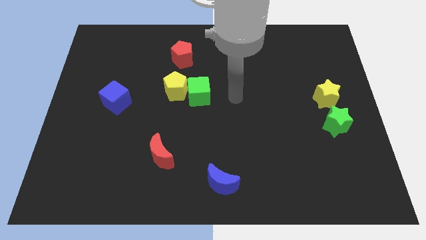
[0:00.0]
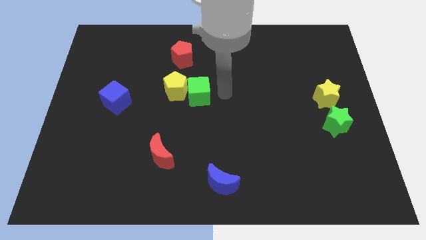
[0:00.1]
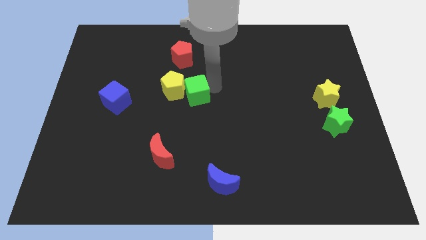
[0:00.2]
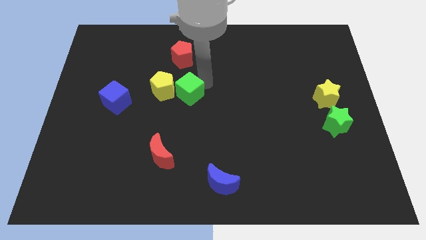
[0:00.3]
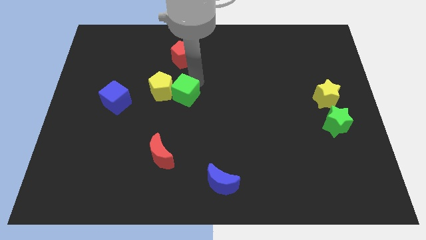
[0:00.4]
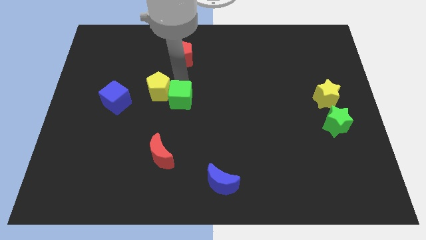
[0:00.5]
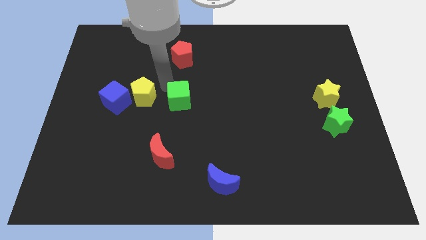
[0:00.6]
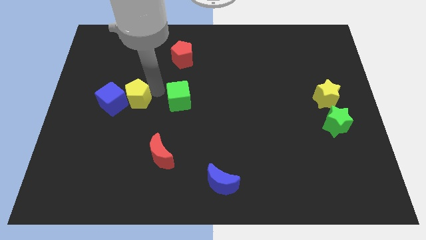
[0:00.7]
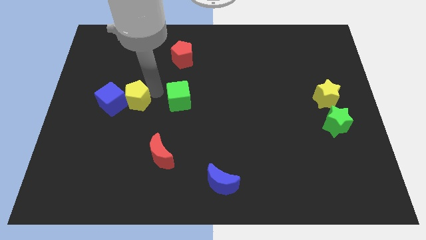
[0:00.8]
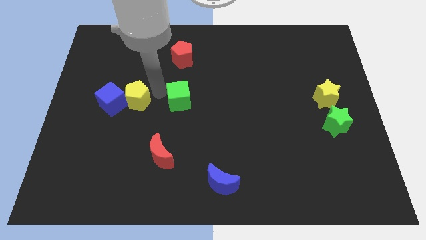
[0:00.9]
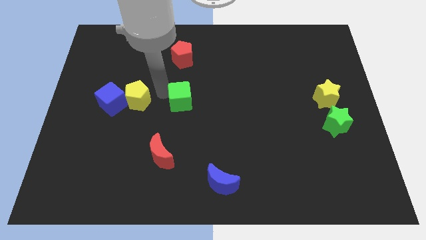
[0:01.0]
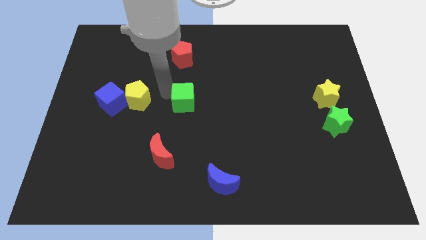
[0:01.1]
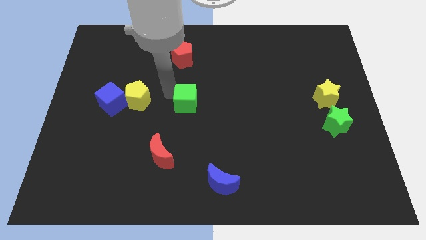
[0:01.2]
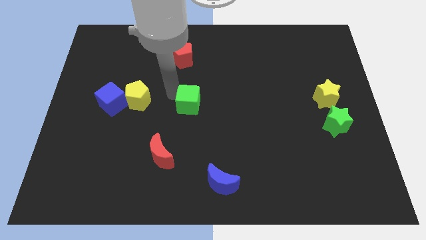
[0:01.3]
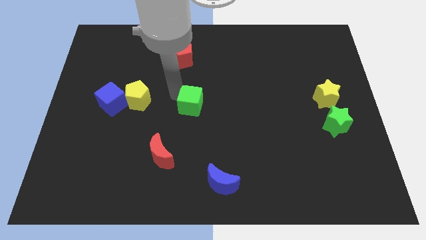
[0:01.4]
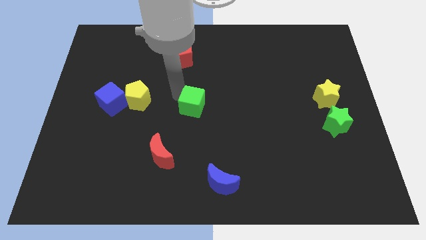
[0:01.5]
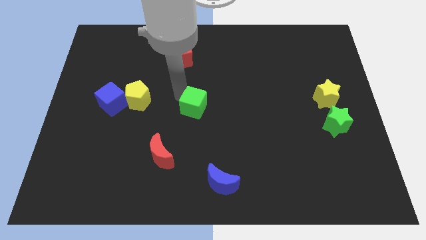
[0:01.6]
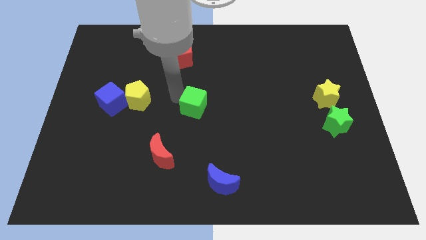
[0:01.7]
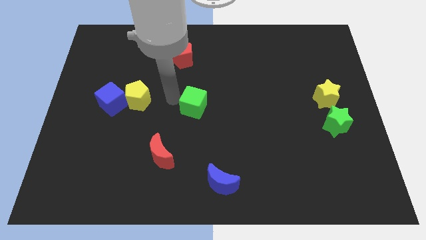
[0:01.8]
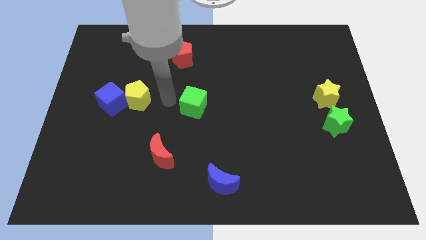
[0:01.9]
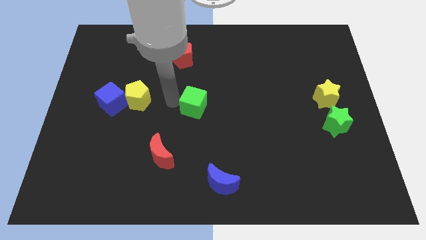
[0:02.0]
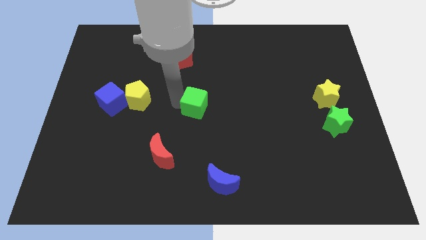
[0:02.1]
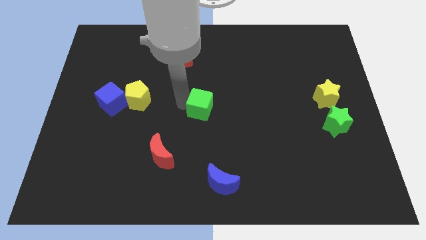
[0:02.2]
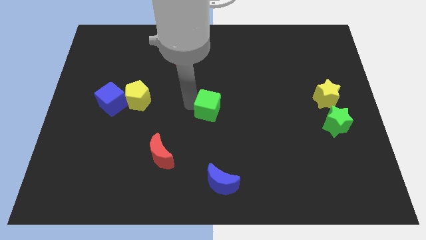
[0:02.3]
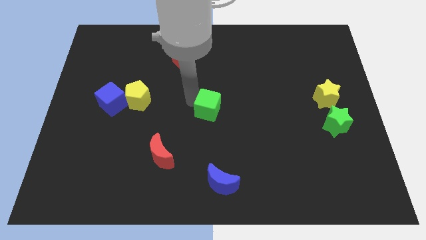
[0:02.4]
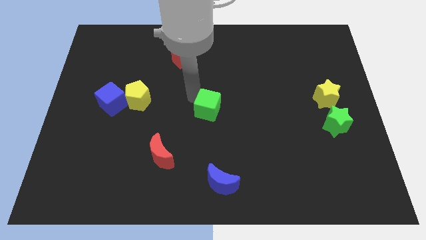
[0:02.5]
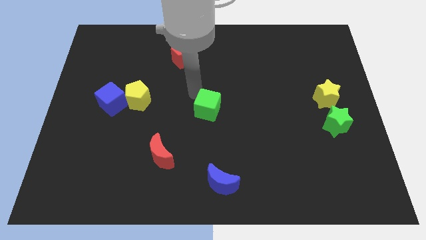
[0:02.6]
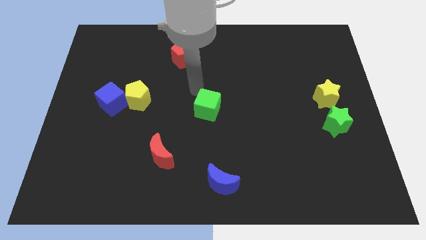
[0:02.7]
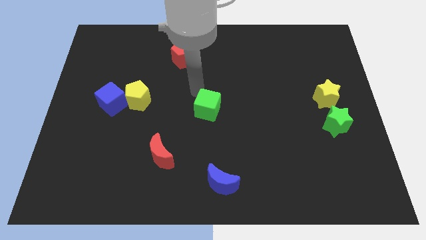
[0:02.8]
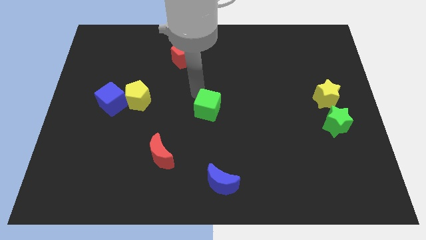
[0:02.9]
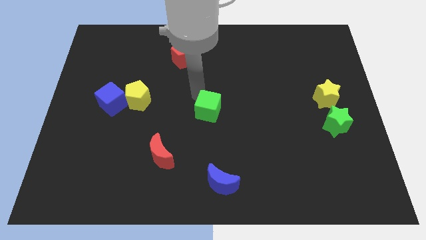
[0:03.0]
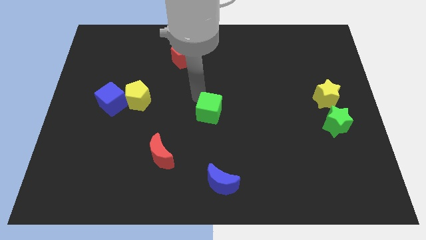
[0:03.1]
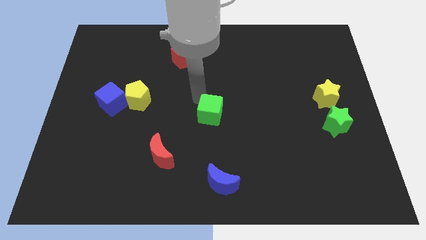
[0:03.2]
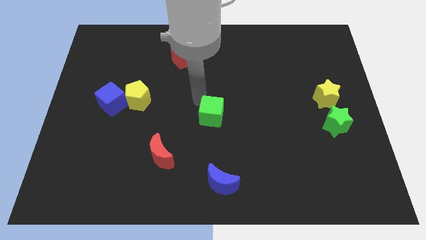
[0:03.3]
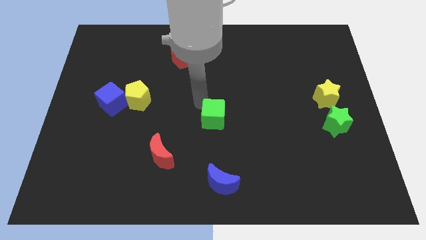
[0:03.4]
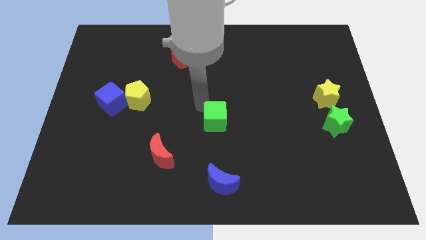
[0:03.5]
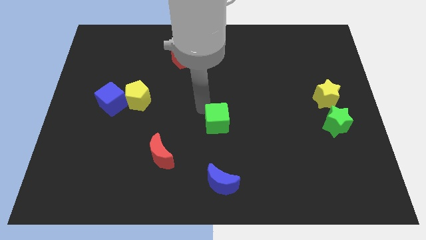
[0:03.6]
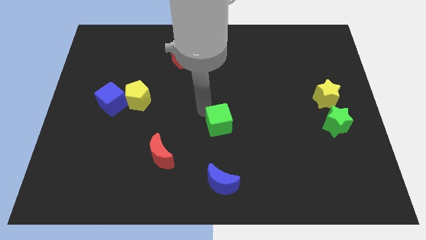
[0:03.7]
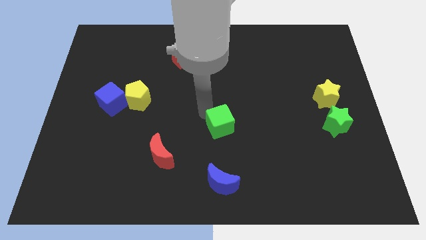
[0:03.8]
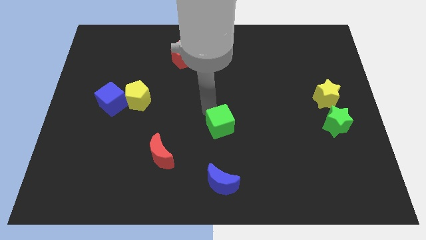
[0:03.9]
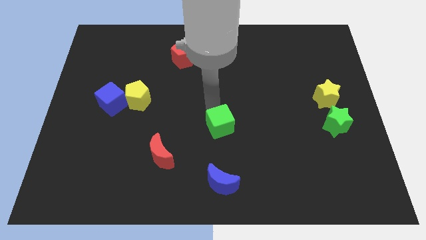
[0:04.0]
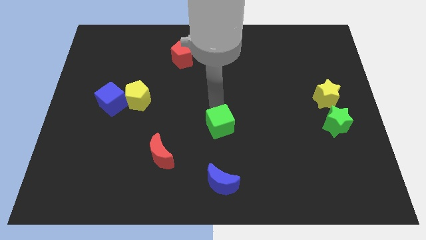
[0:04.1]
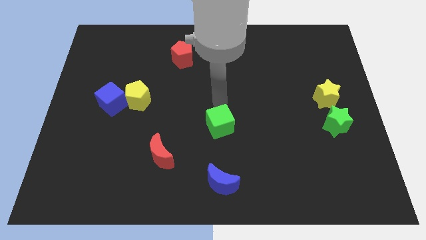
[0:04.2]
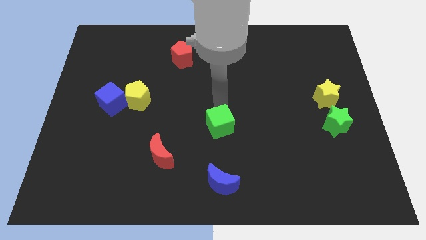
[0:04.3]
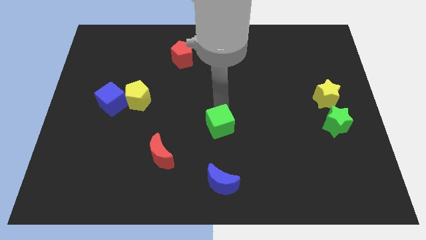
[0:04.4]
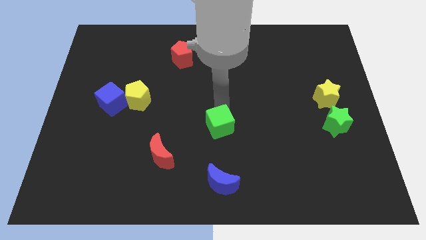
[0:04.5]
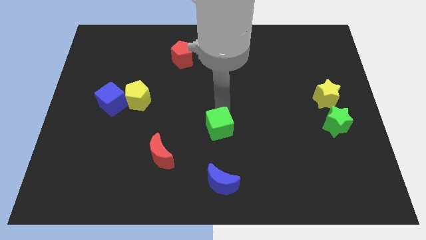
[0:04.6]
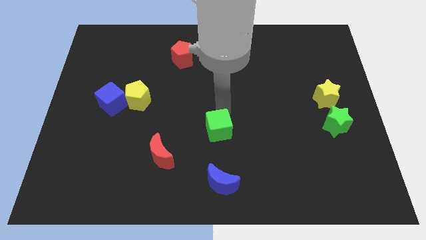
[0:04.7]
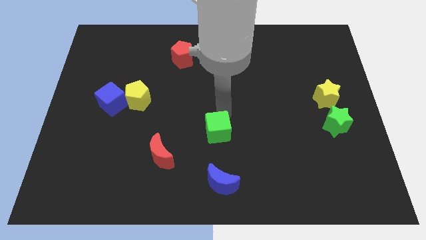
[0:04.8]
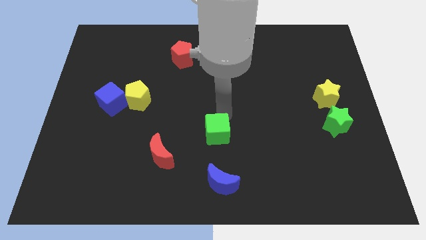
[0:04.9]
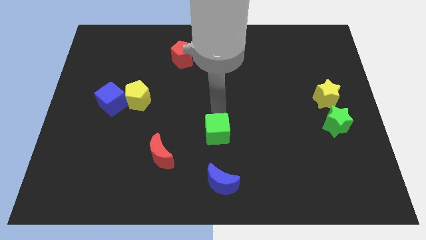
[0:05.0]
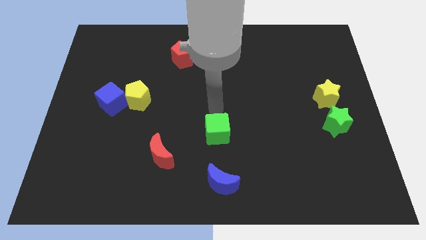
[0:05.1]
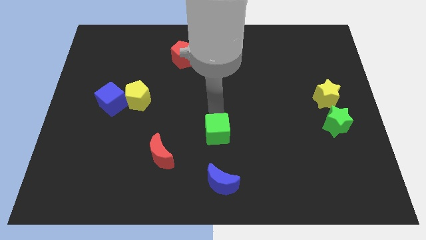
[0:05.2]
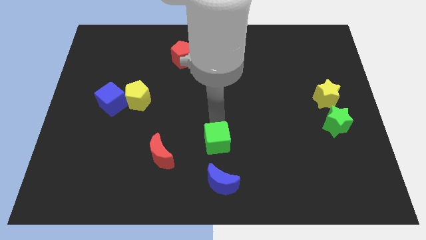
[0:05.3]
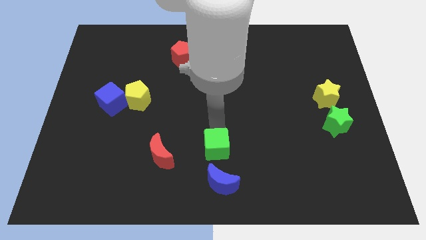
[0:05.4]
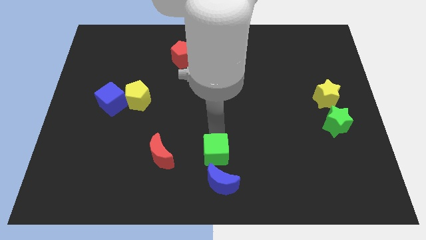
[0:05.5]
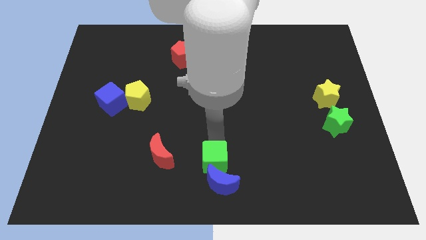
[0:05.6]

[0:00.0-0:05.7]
move the green cube next to the blue moon

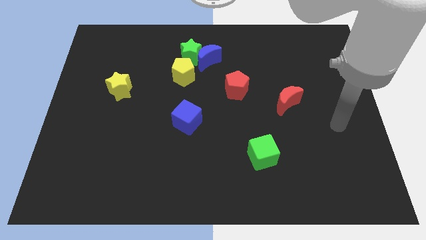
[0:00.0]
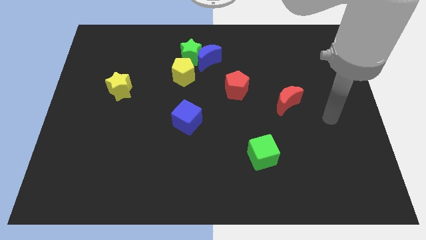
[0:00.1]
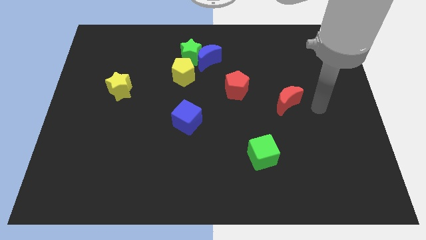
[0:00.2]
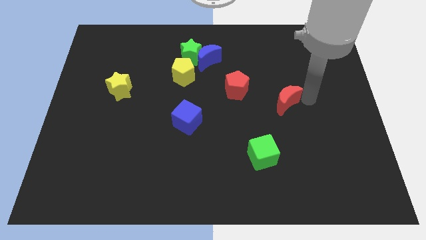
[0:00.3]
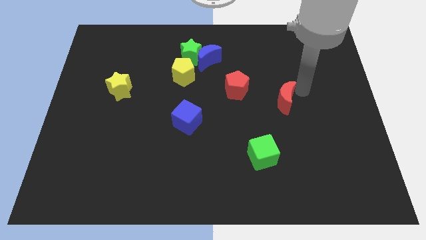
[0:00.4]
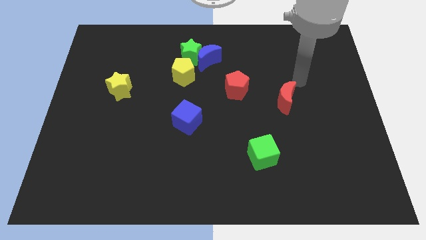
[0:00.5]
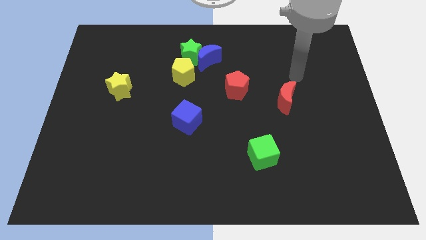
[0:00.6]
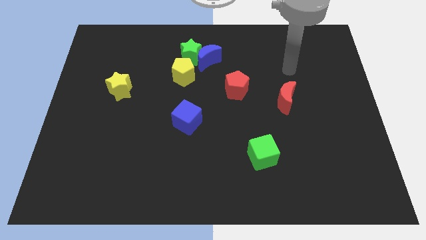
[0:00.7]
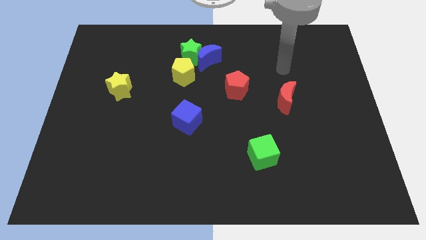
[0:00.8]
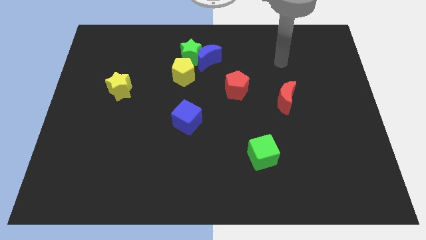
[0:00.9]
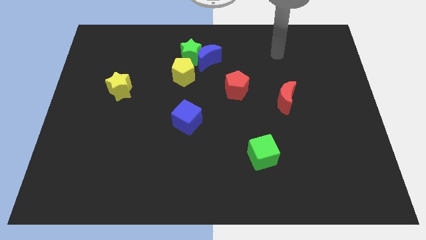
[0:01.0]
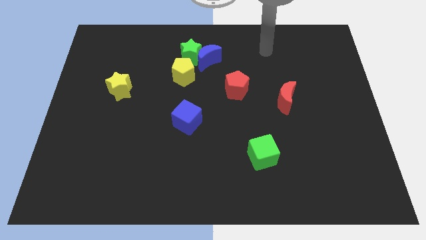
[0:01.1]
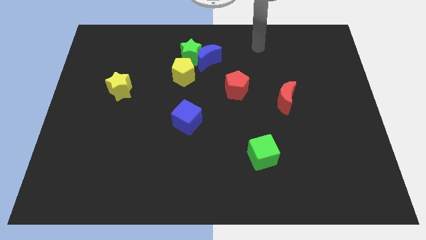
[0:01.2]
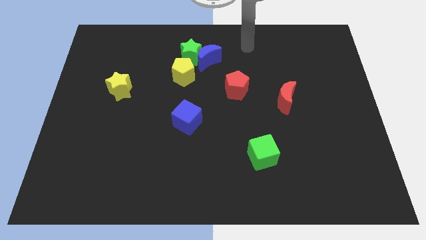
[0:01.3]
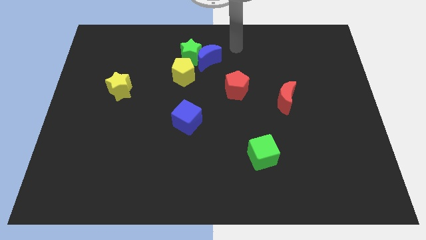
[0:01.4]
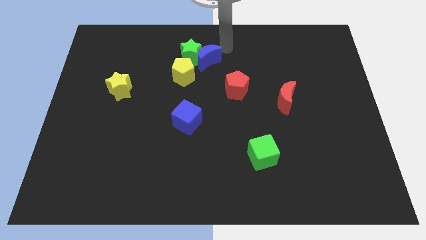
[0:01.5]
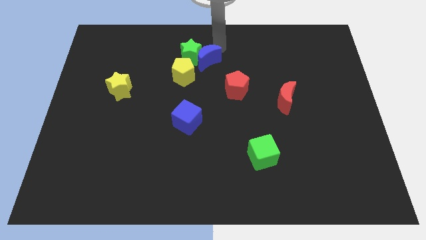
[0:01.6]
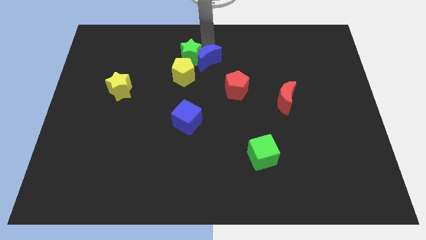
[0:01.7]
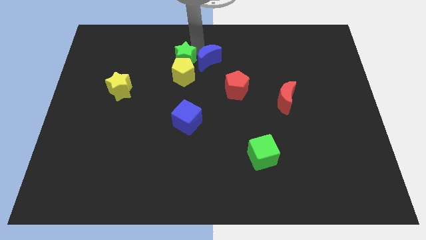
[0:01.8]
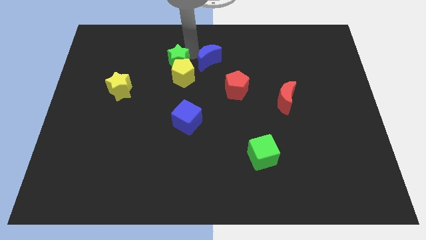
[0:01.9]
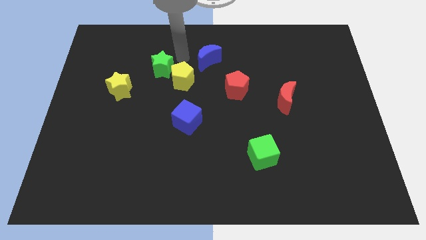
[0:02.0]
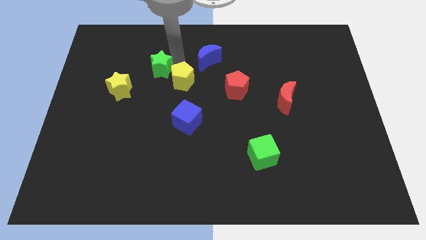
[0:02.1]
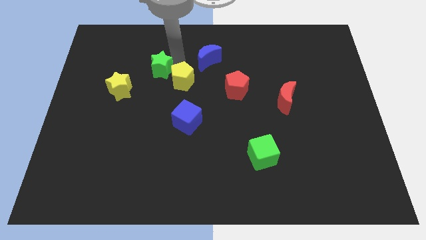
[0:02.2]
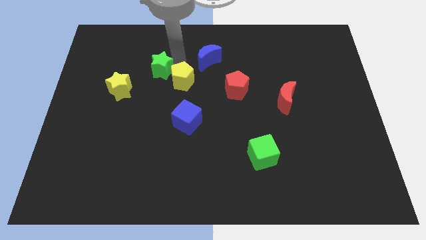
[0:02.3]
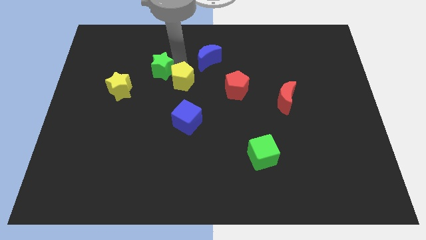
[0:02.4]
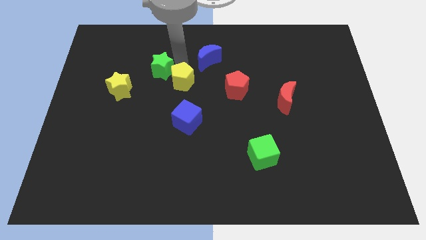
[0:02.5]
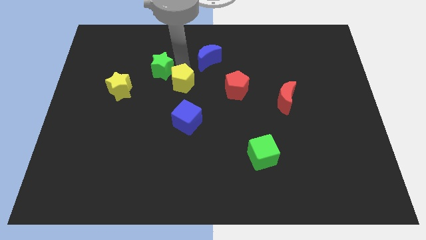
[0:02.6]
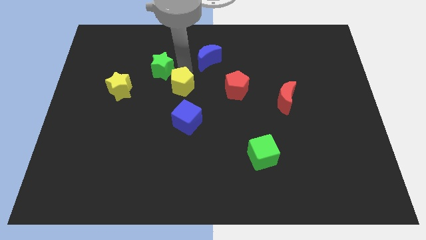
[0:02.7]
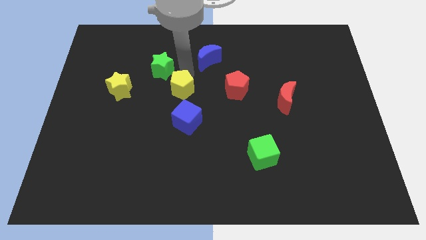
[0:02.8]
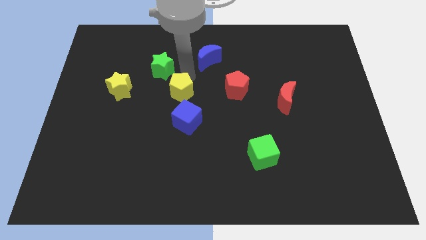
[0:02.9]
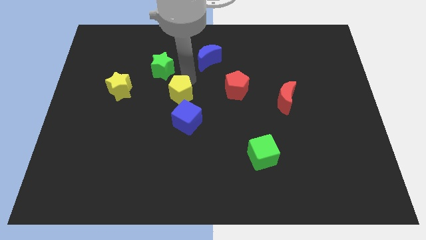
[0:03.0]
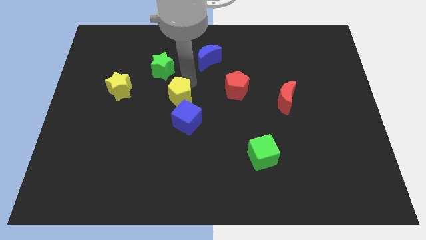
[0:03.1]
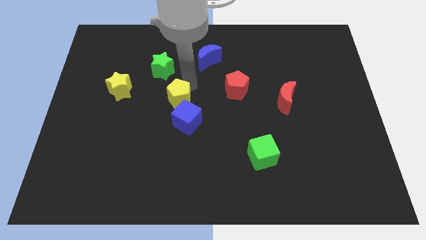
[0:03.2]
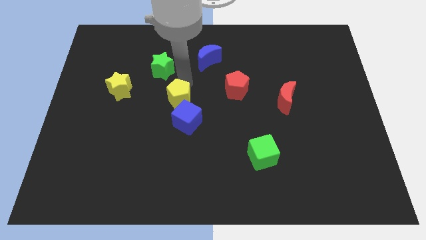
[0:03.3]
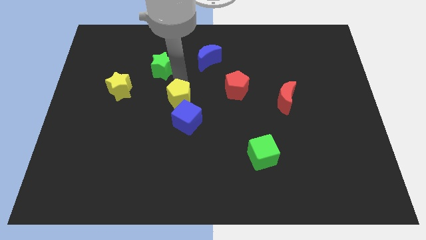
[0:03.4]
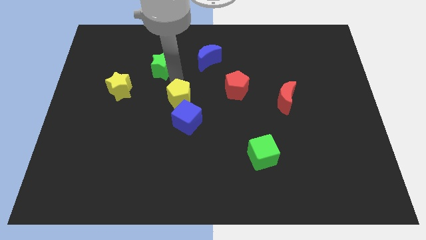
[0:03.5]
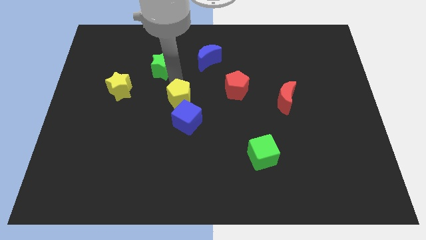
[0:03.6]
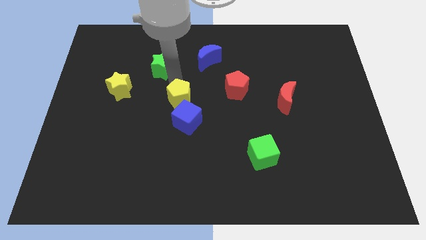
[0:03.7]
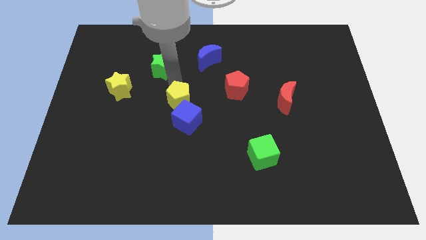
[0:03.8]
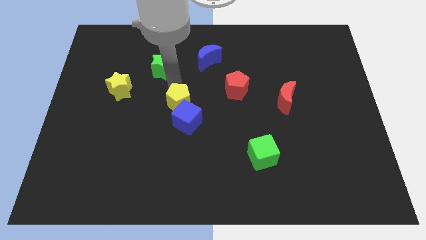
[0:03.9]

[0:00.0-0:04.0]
put the yellow pentagon close to the blue cube
